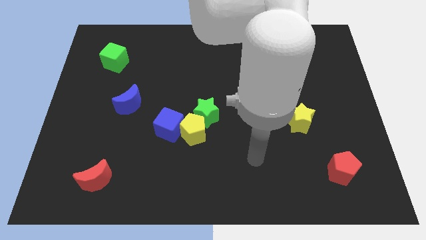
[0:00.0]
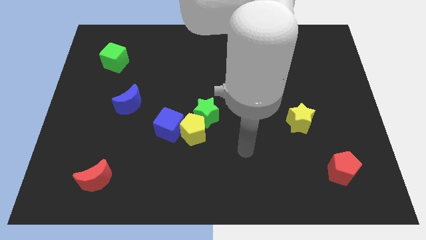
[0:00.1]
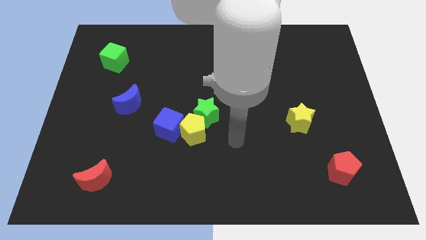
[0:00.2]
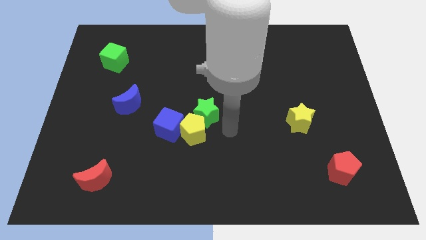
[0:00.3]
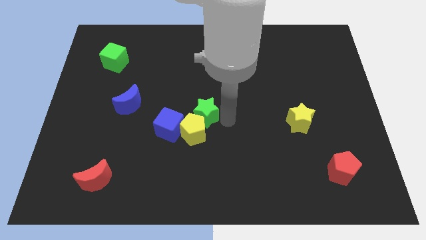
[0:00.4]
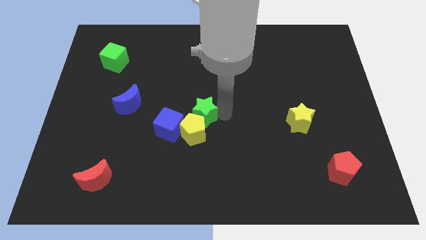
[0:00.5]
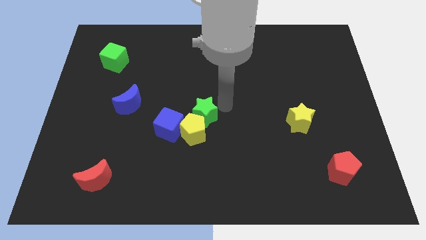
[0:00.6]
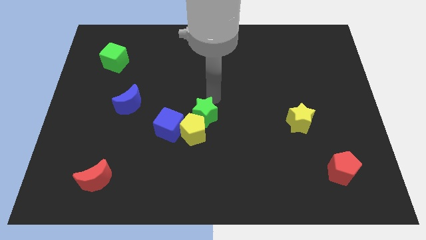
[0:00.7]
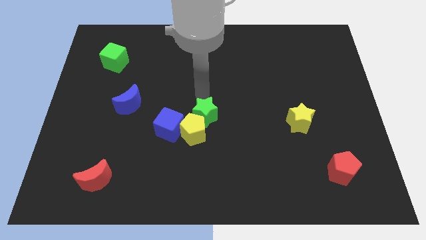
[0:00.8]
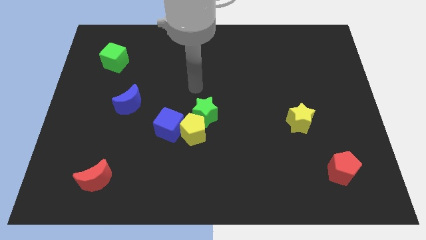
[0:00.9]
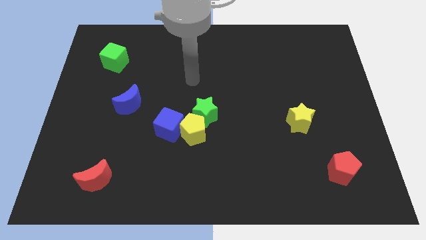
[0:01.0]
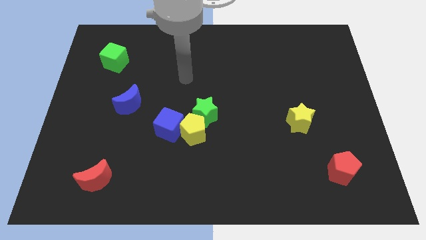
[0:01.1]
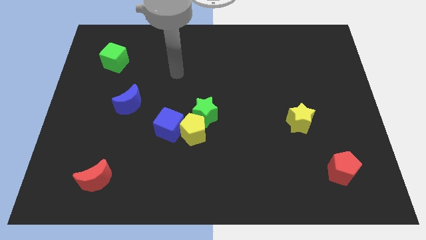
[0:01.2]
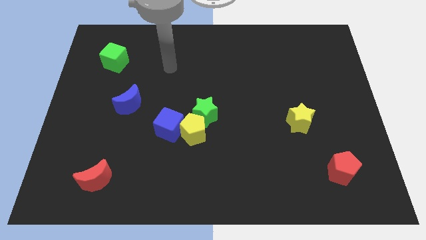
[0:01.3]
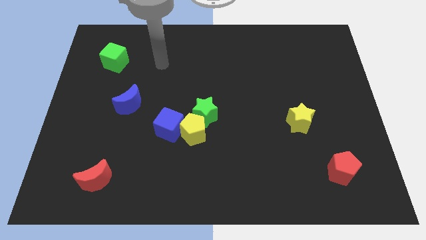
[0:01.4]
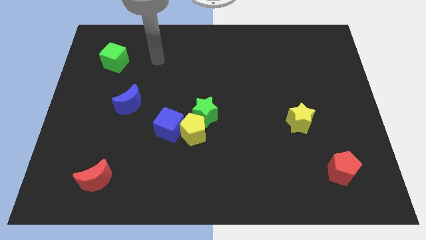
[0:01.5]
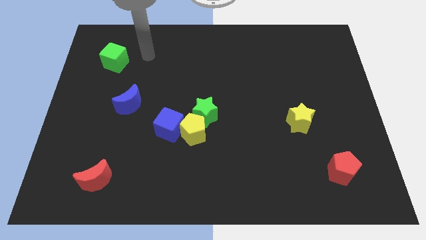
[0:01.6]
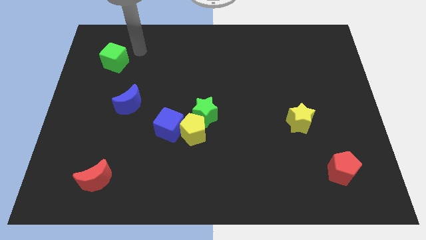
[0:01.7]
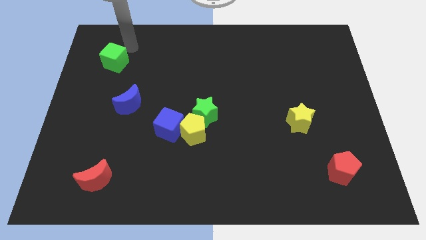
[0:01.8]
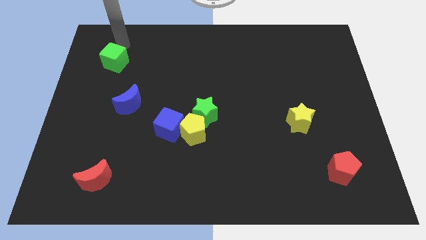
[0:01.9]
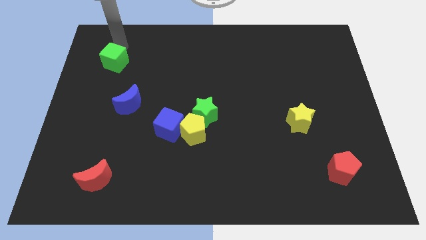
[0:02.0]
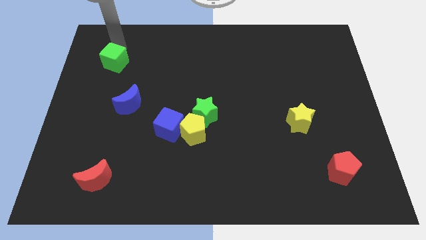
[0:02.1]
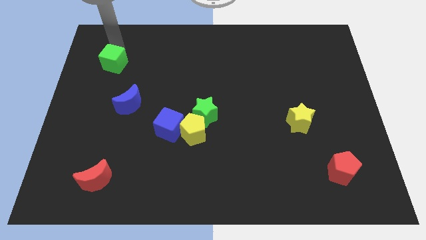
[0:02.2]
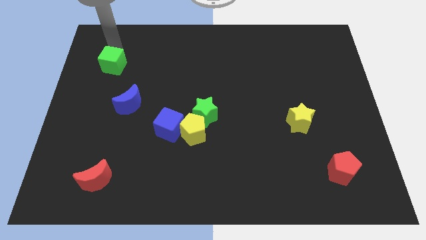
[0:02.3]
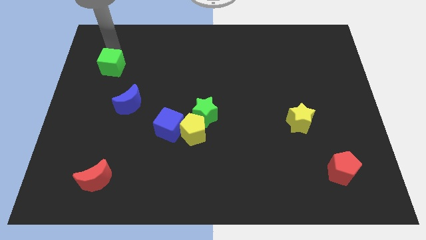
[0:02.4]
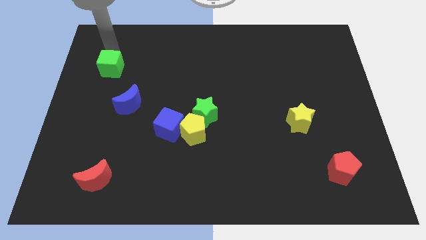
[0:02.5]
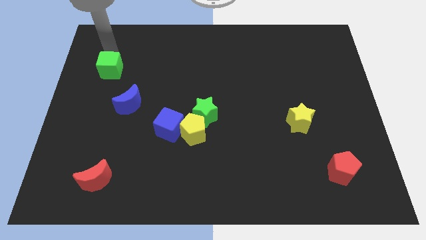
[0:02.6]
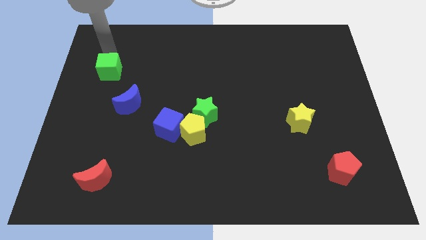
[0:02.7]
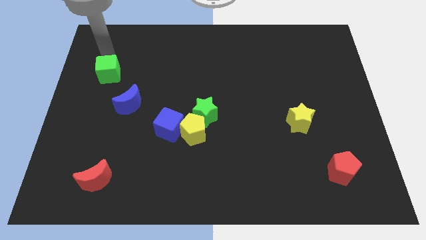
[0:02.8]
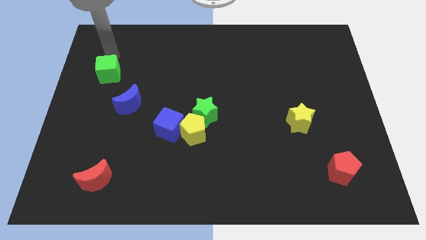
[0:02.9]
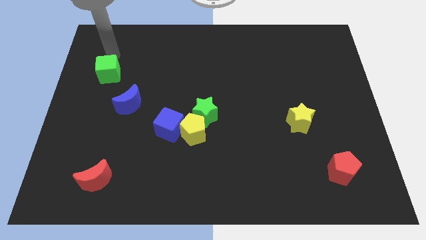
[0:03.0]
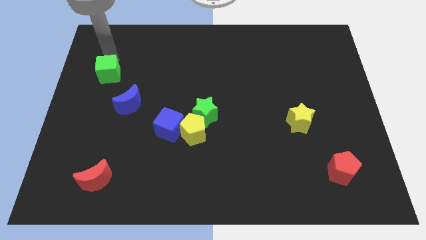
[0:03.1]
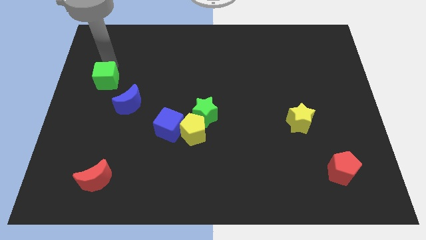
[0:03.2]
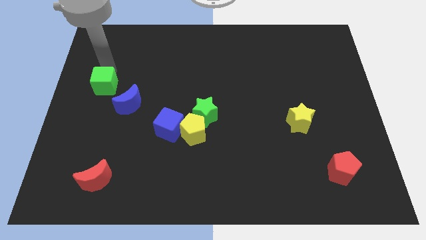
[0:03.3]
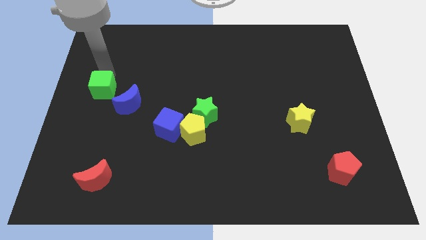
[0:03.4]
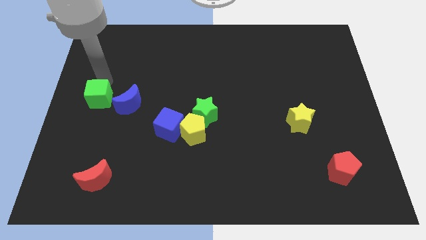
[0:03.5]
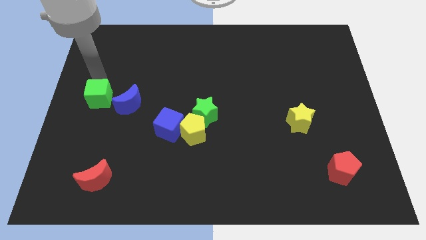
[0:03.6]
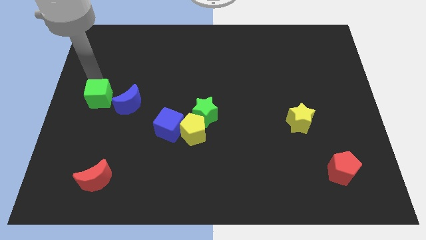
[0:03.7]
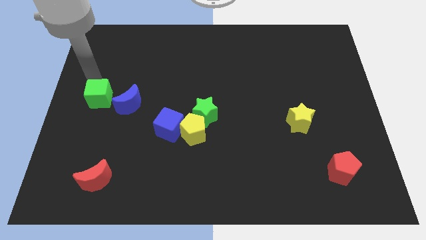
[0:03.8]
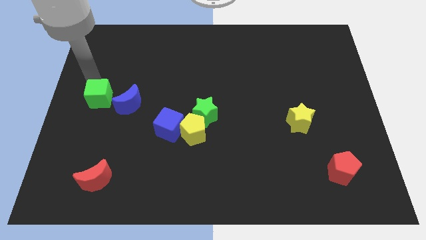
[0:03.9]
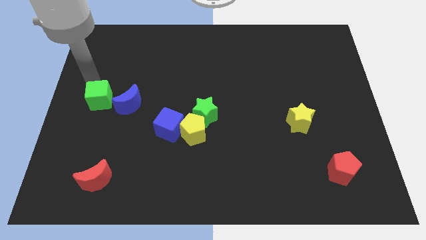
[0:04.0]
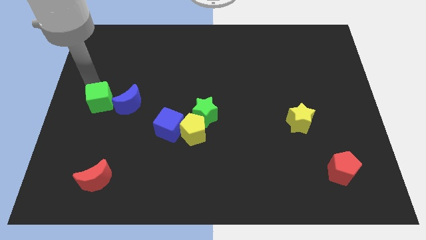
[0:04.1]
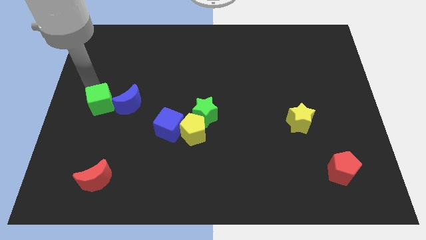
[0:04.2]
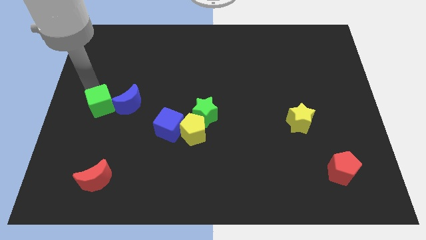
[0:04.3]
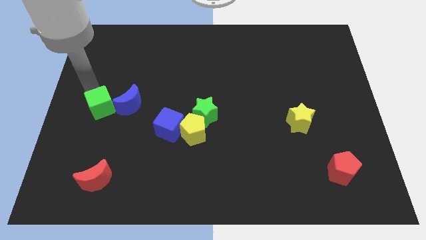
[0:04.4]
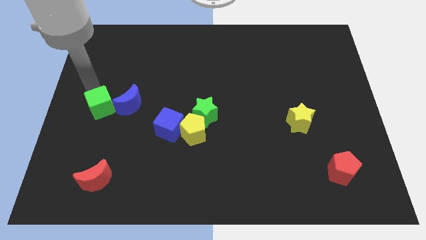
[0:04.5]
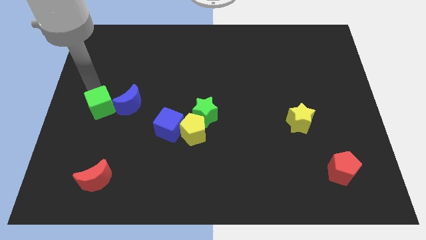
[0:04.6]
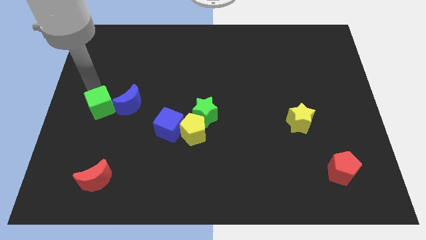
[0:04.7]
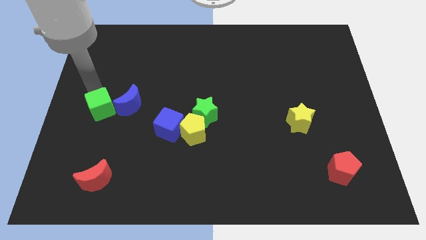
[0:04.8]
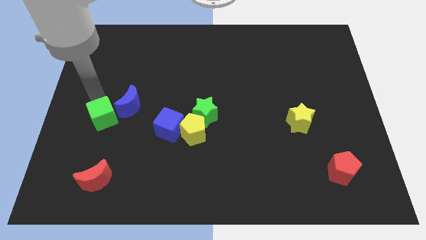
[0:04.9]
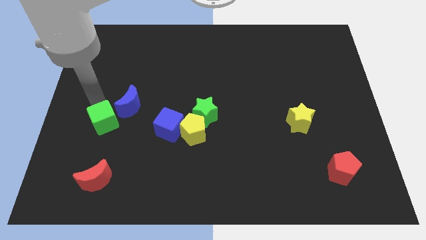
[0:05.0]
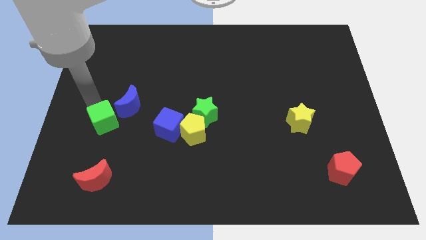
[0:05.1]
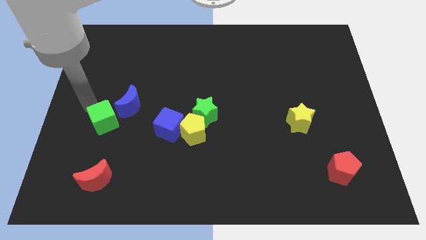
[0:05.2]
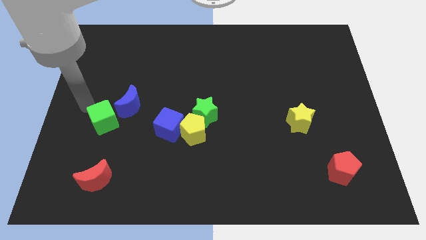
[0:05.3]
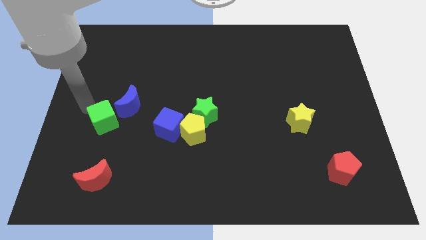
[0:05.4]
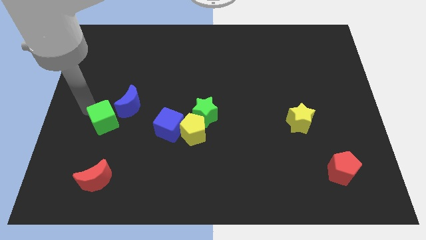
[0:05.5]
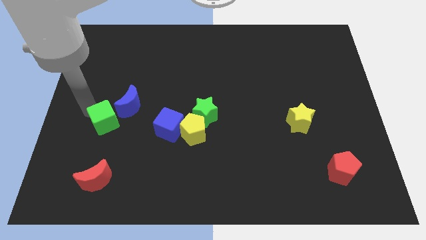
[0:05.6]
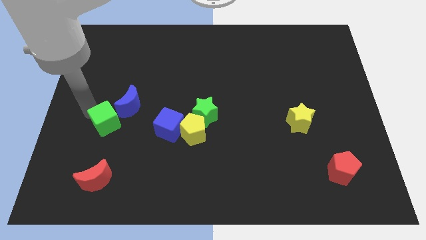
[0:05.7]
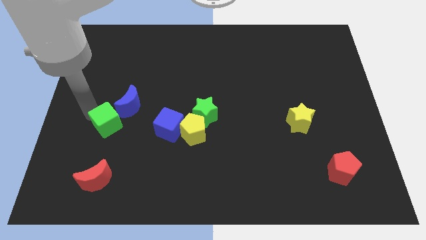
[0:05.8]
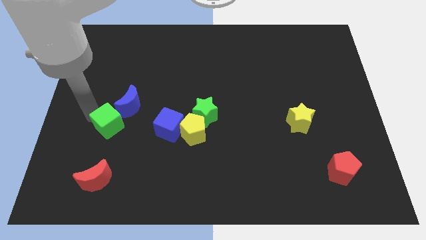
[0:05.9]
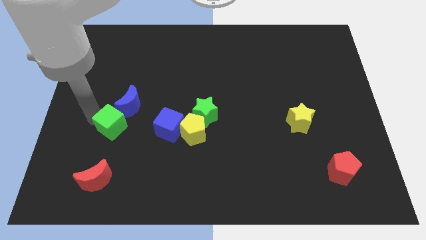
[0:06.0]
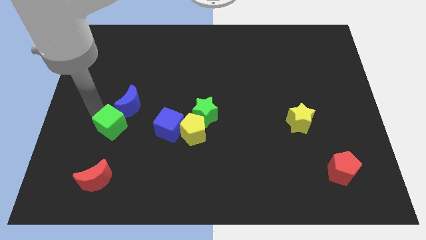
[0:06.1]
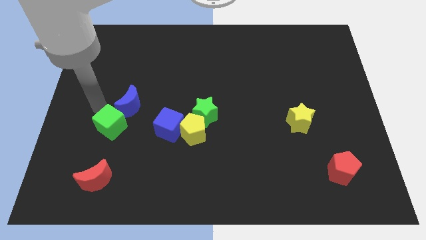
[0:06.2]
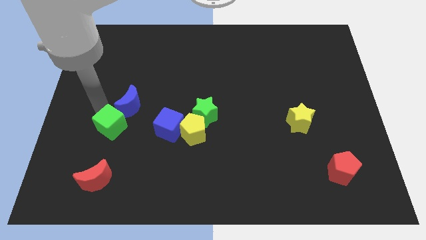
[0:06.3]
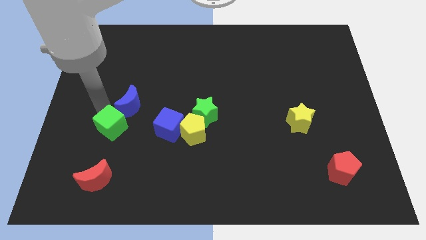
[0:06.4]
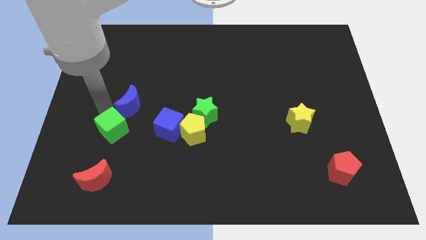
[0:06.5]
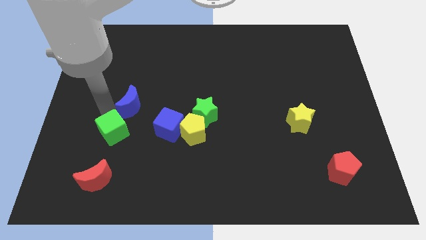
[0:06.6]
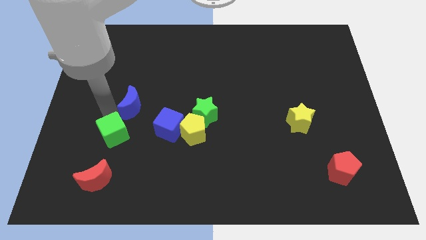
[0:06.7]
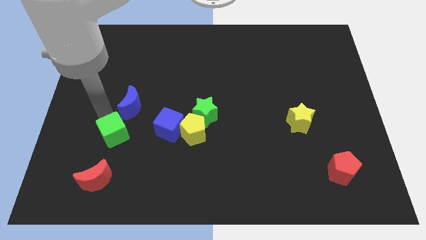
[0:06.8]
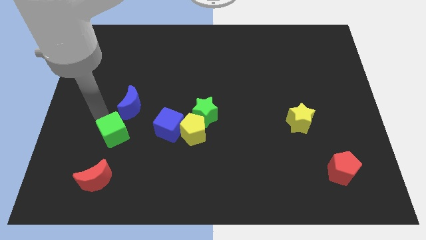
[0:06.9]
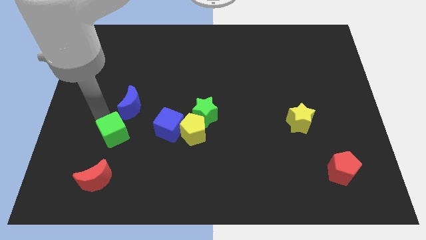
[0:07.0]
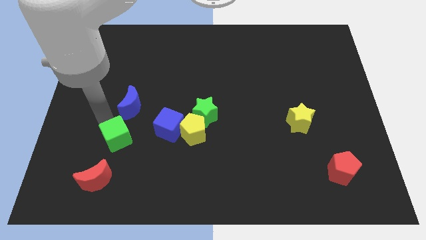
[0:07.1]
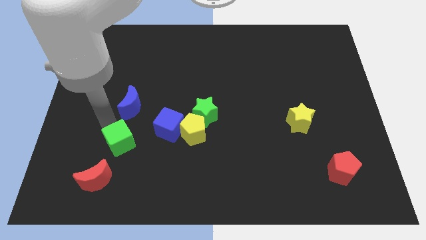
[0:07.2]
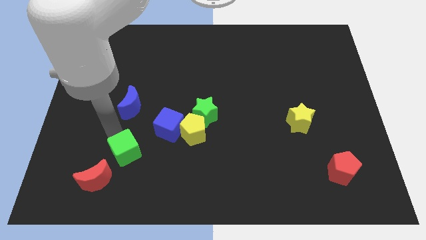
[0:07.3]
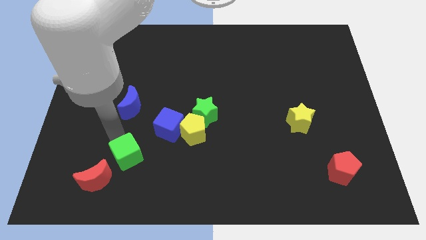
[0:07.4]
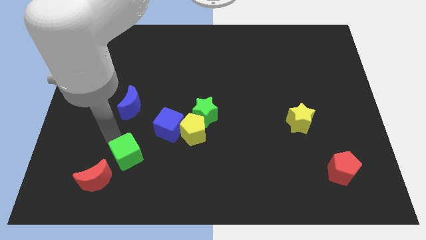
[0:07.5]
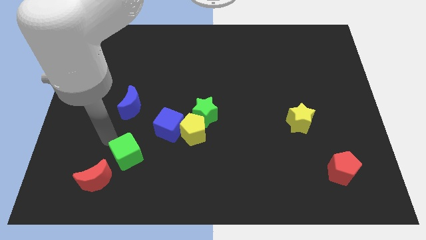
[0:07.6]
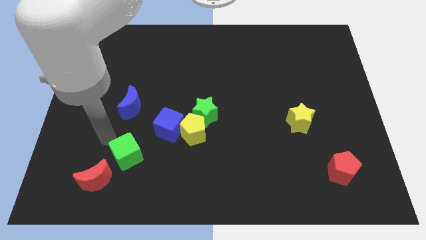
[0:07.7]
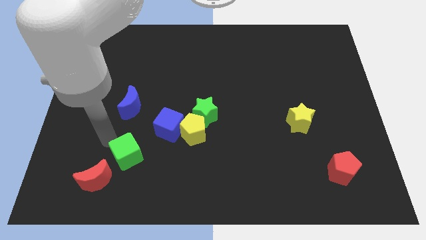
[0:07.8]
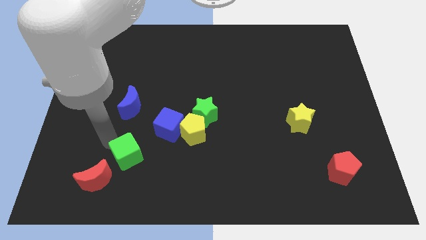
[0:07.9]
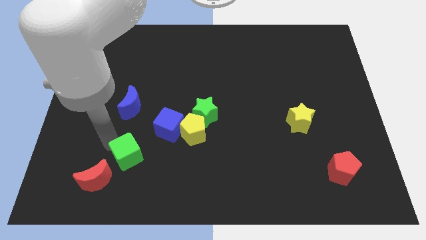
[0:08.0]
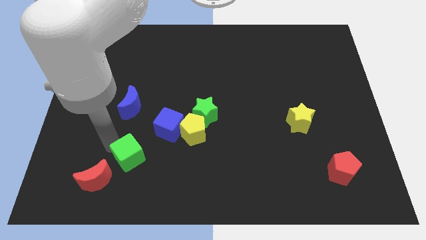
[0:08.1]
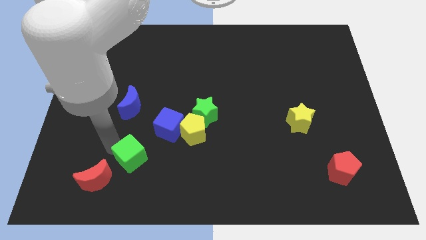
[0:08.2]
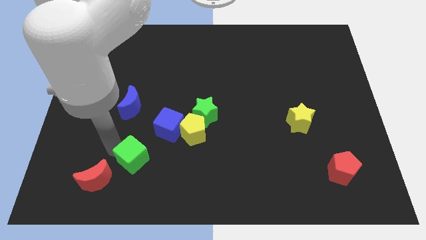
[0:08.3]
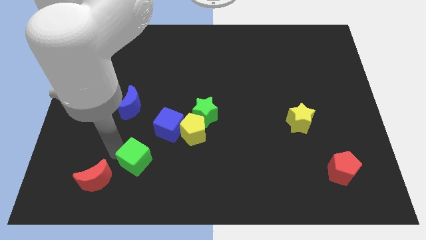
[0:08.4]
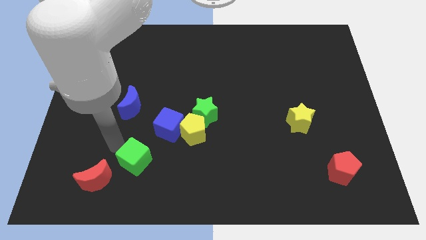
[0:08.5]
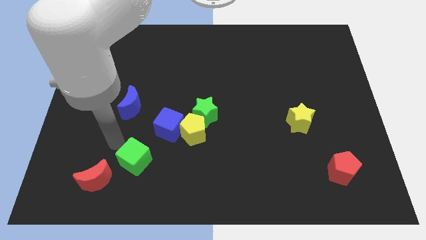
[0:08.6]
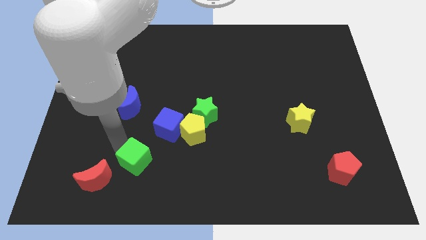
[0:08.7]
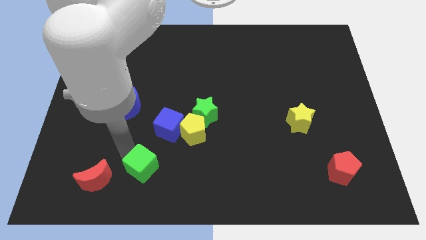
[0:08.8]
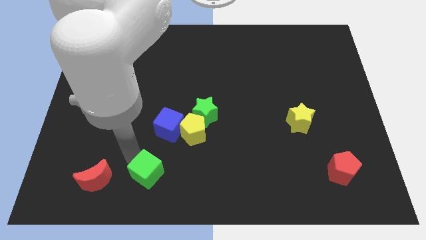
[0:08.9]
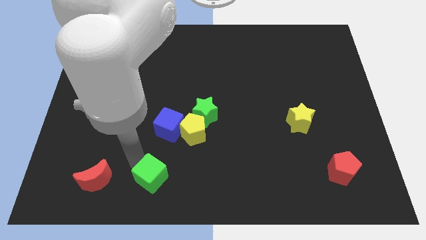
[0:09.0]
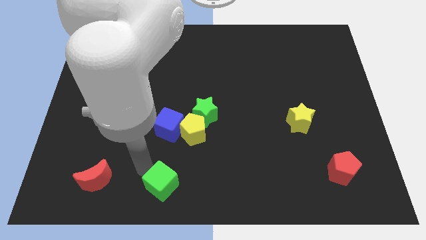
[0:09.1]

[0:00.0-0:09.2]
push the green cube to the bottom side
